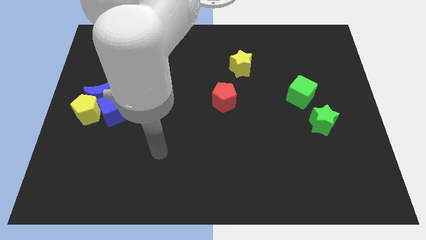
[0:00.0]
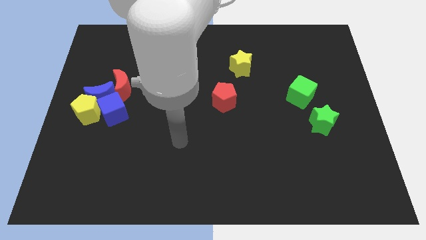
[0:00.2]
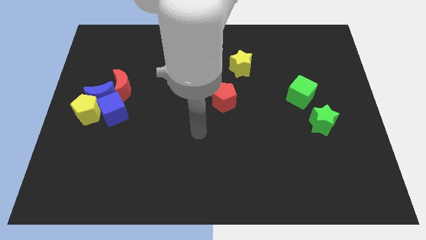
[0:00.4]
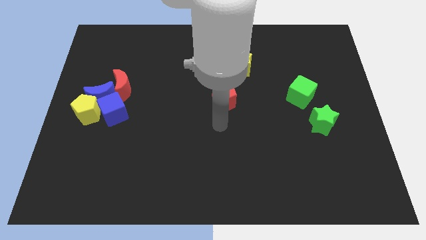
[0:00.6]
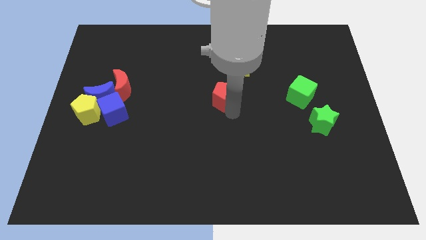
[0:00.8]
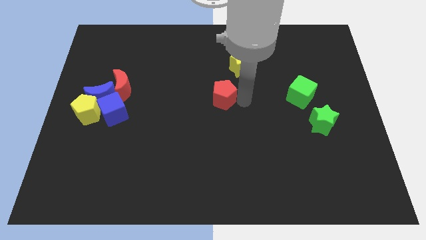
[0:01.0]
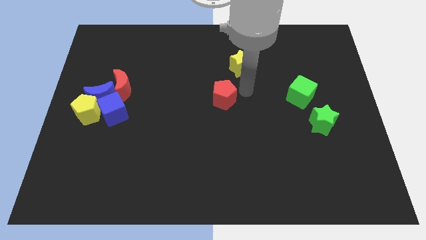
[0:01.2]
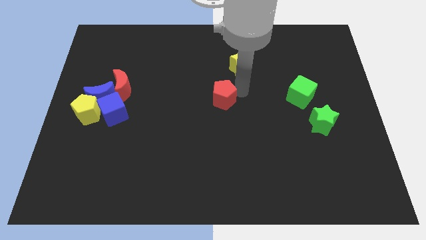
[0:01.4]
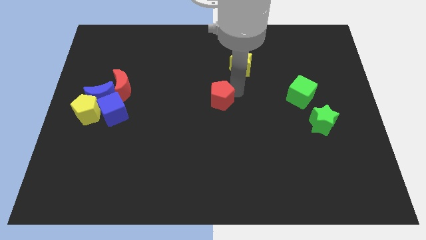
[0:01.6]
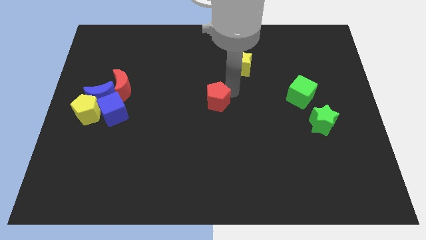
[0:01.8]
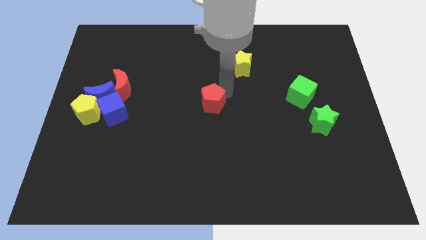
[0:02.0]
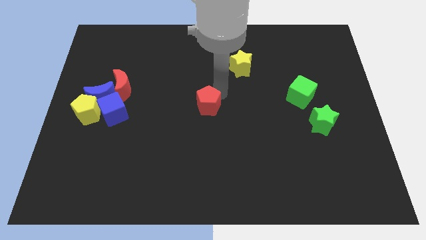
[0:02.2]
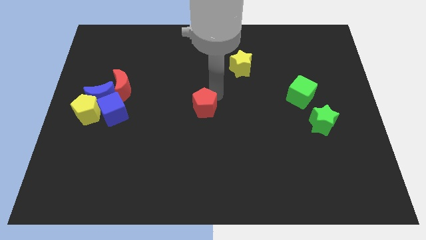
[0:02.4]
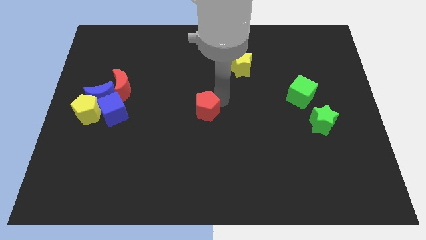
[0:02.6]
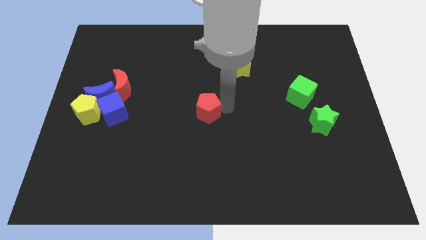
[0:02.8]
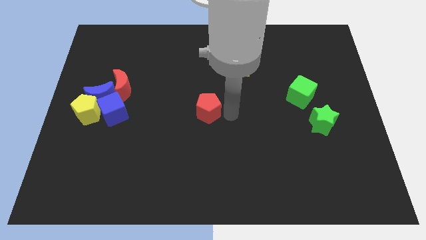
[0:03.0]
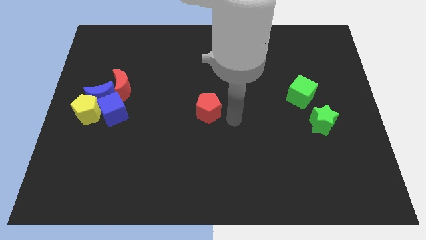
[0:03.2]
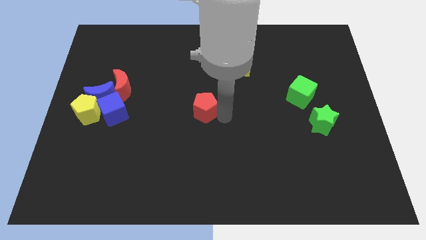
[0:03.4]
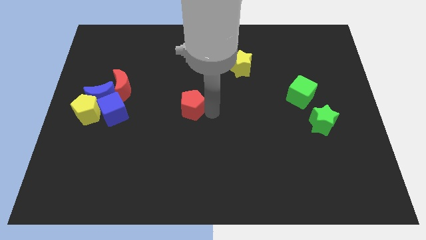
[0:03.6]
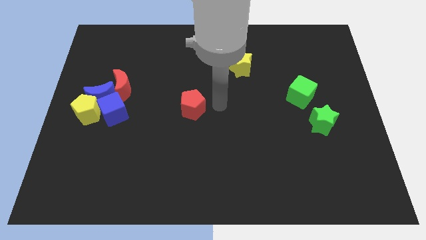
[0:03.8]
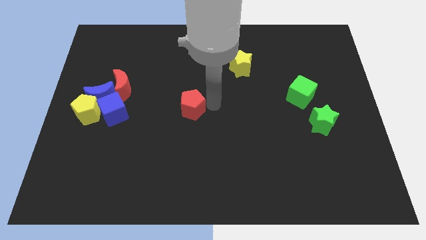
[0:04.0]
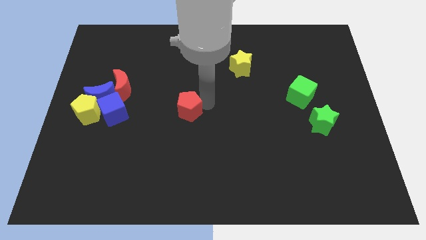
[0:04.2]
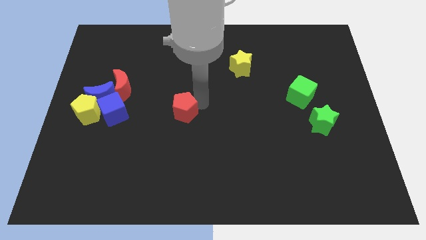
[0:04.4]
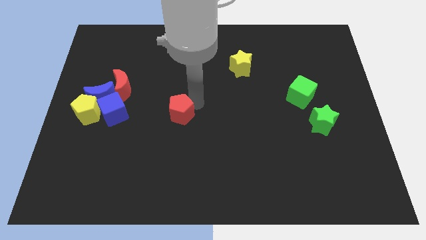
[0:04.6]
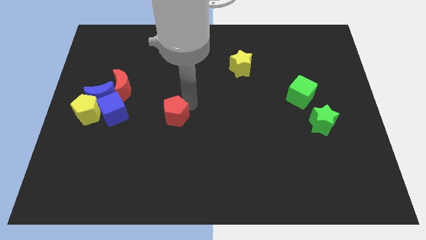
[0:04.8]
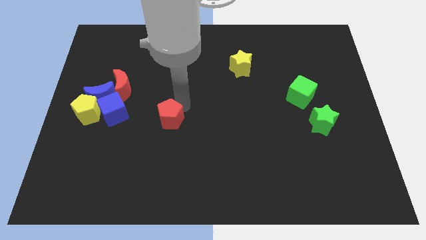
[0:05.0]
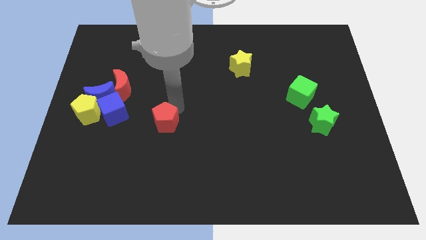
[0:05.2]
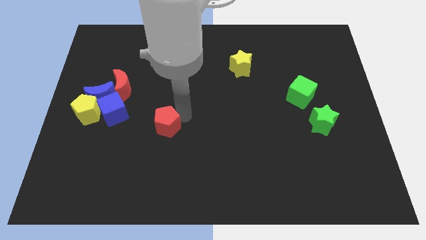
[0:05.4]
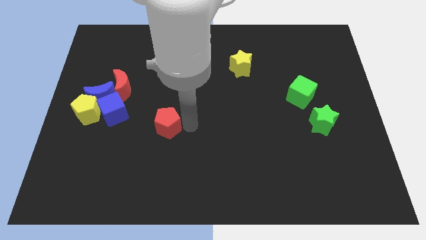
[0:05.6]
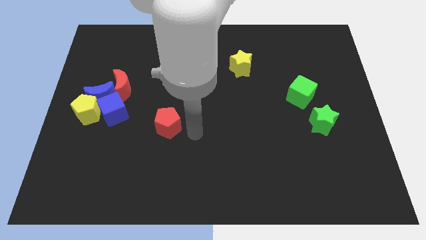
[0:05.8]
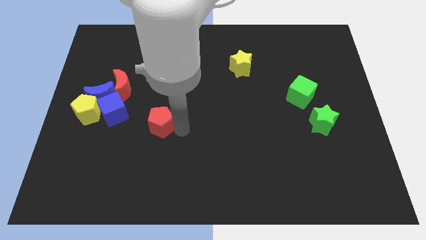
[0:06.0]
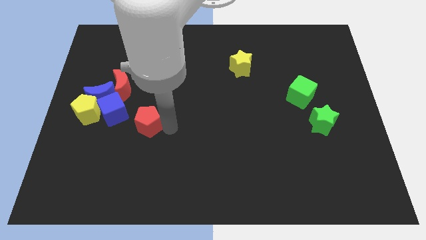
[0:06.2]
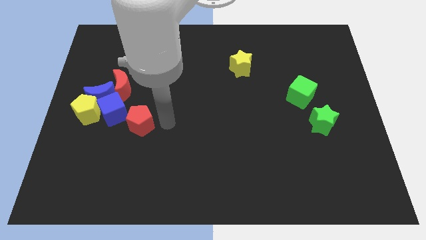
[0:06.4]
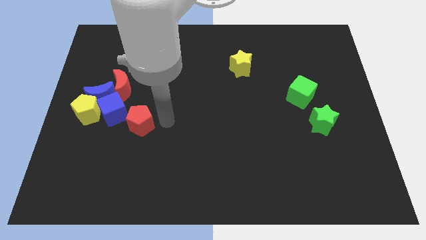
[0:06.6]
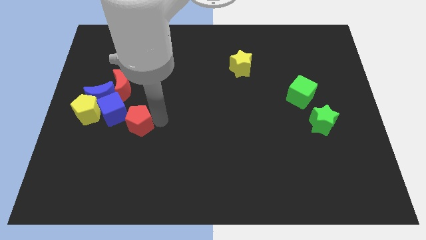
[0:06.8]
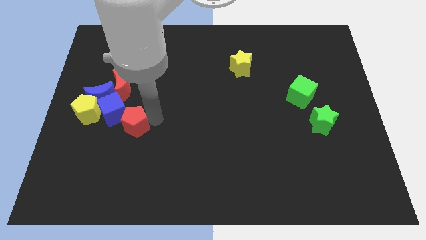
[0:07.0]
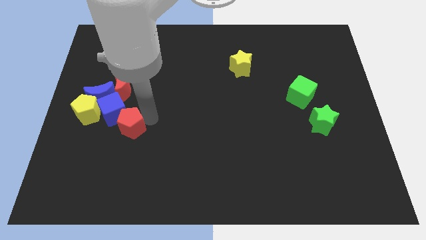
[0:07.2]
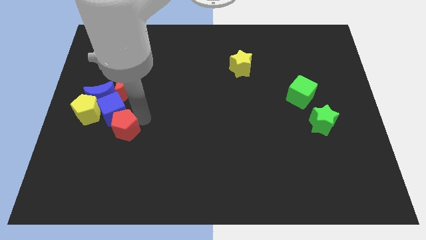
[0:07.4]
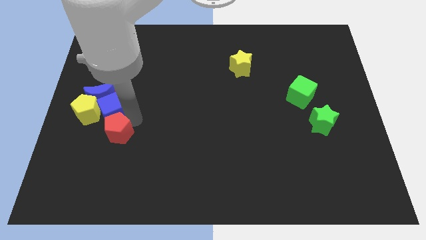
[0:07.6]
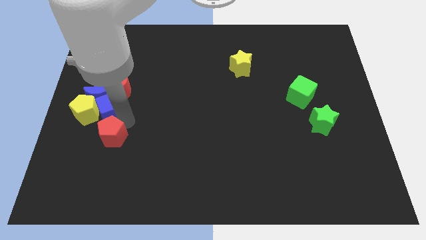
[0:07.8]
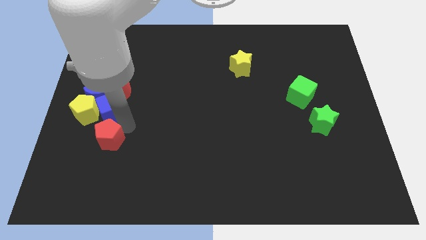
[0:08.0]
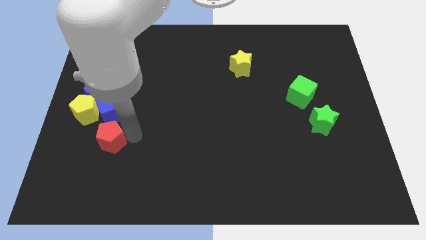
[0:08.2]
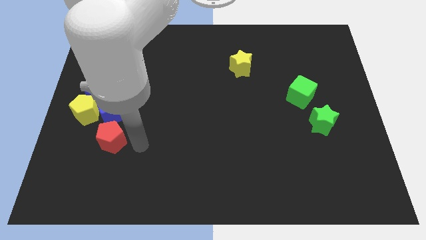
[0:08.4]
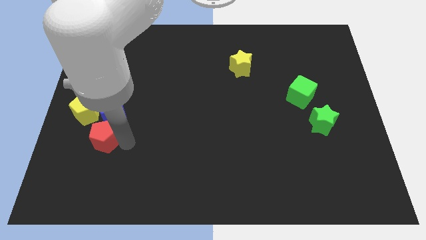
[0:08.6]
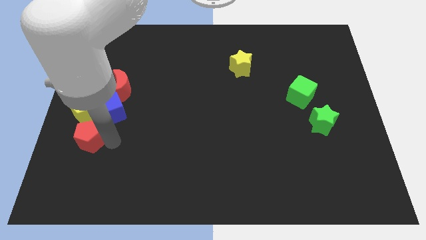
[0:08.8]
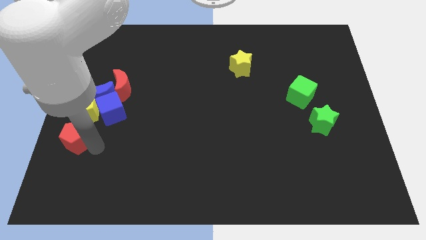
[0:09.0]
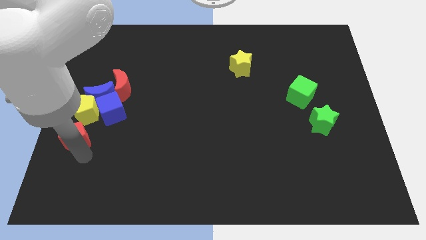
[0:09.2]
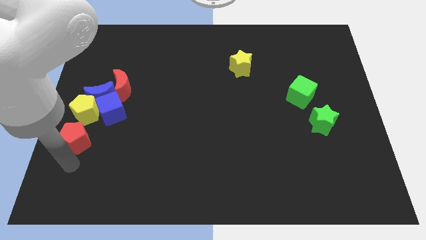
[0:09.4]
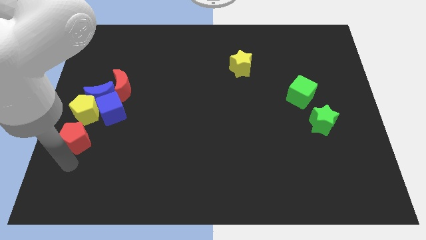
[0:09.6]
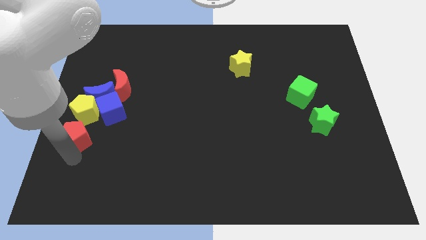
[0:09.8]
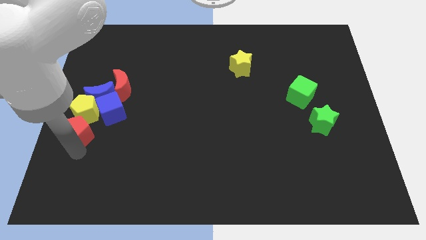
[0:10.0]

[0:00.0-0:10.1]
push the red pentagon to the yellow pentagon

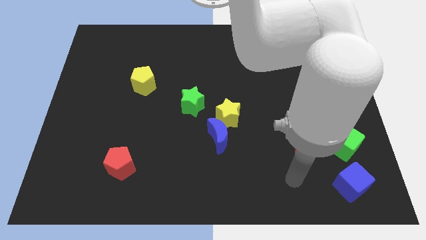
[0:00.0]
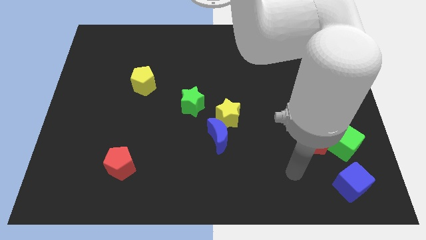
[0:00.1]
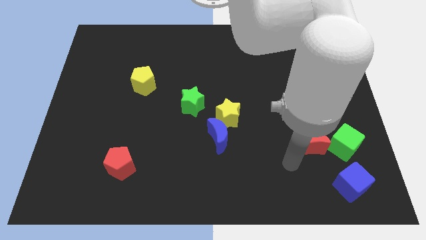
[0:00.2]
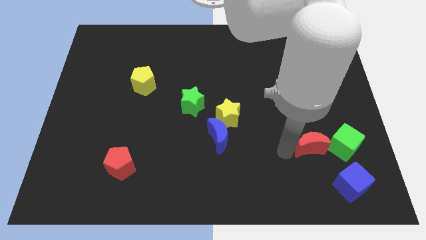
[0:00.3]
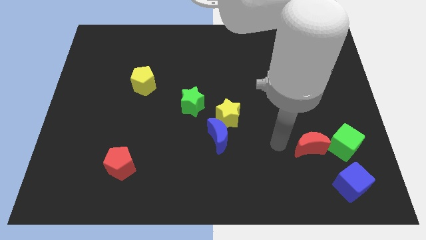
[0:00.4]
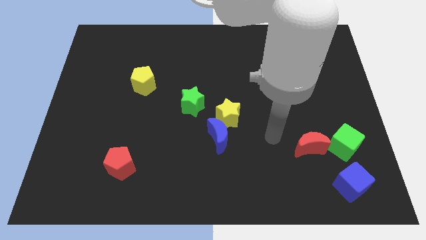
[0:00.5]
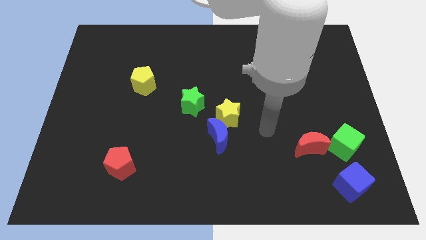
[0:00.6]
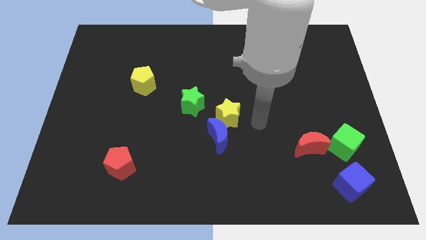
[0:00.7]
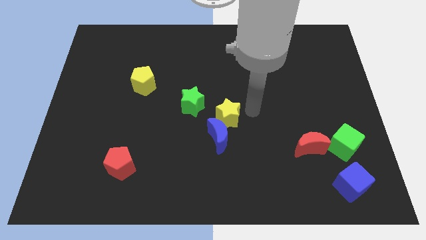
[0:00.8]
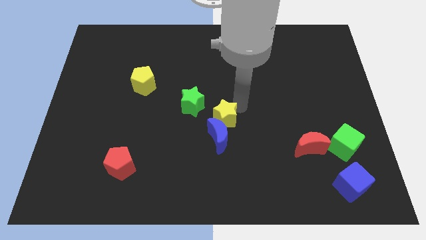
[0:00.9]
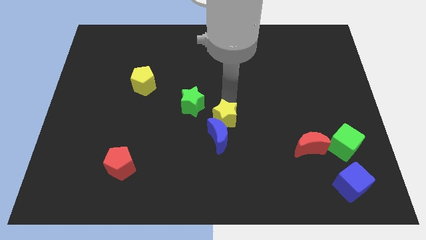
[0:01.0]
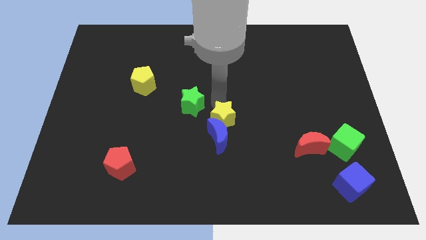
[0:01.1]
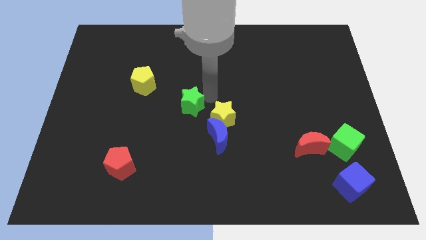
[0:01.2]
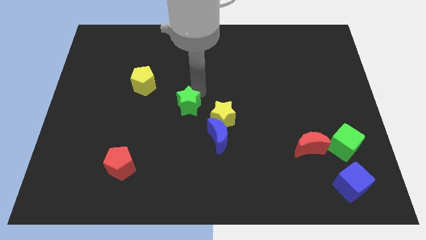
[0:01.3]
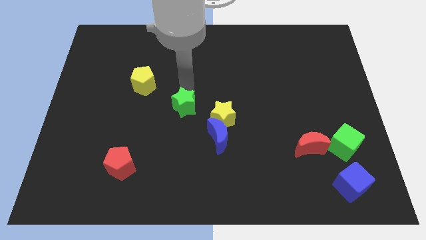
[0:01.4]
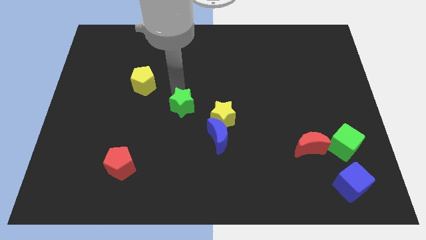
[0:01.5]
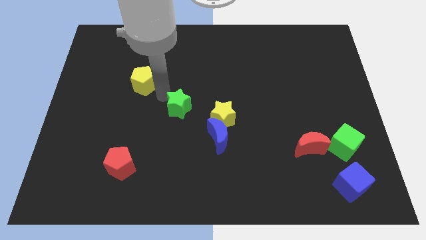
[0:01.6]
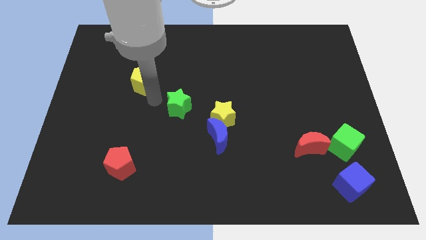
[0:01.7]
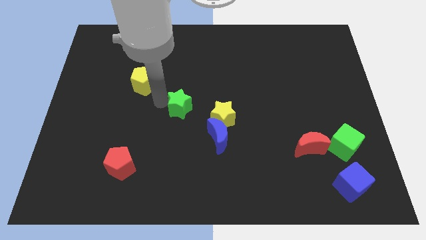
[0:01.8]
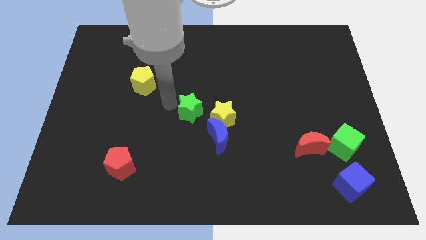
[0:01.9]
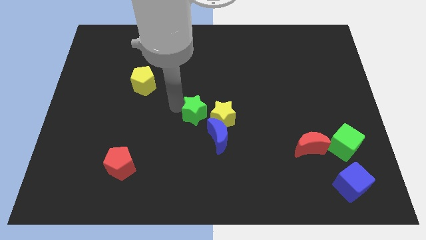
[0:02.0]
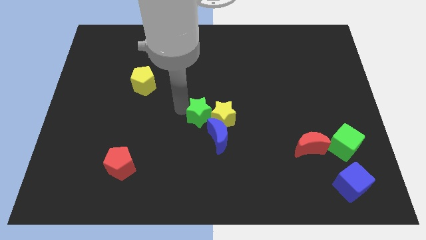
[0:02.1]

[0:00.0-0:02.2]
put the green star close to the yellow star
